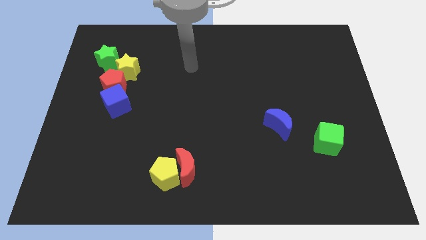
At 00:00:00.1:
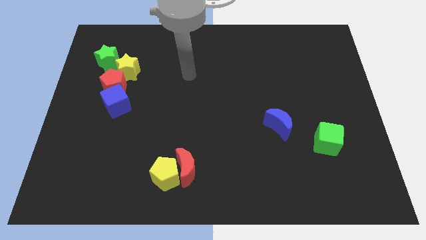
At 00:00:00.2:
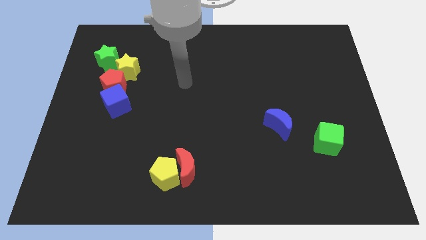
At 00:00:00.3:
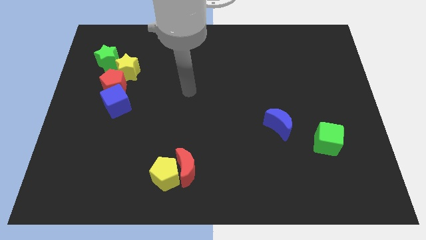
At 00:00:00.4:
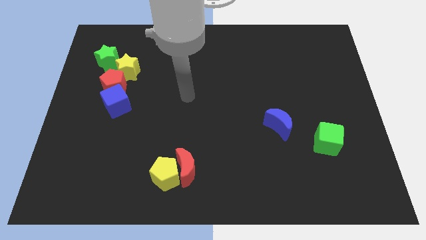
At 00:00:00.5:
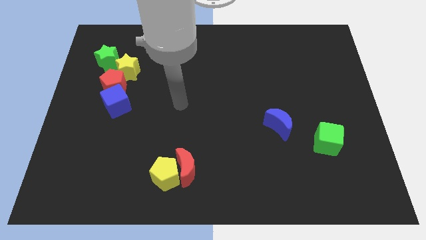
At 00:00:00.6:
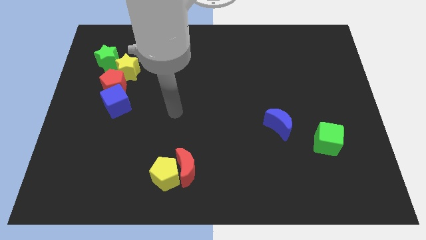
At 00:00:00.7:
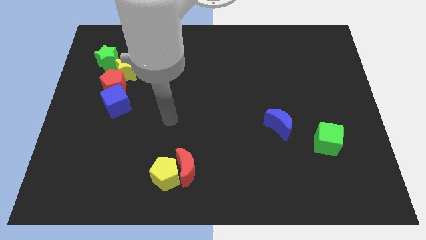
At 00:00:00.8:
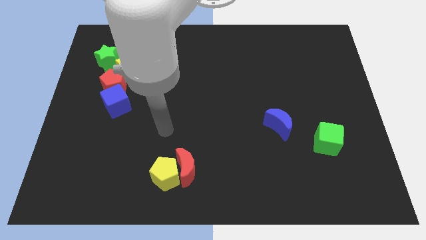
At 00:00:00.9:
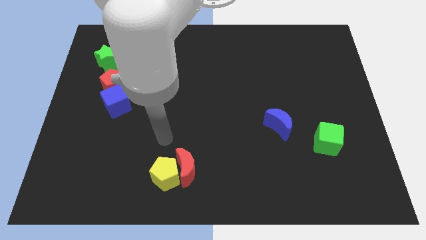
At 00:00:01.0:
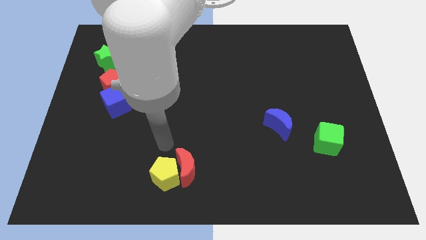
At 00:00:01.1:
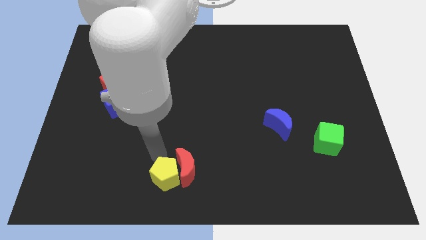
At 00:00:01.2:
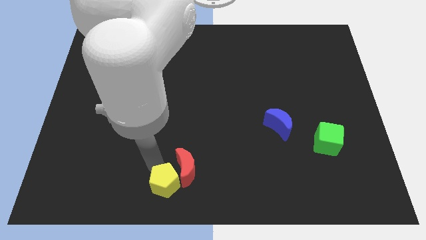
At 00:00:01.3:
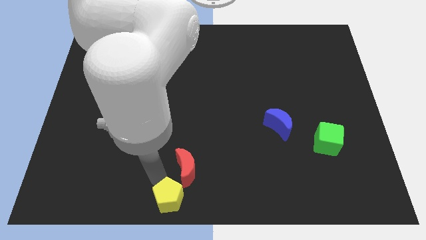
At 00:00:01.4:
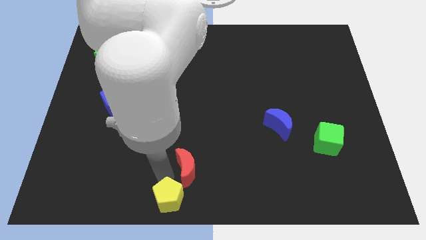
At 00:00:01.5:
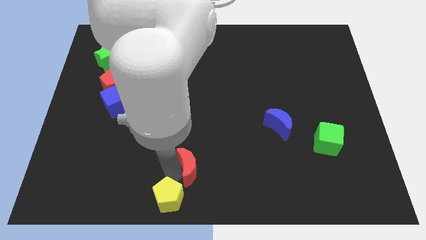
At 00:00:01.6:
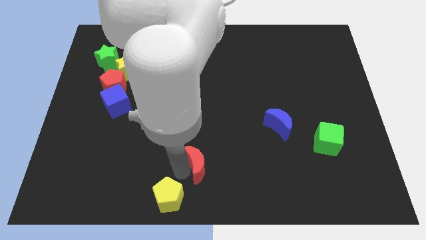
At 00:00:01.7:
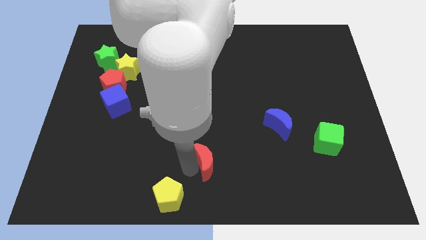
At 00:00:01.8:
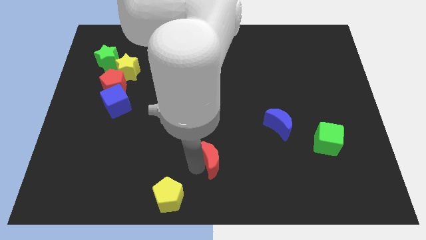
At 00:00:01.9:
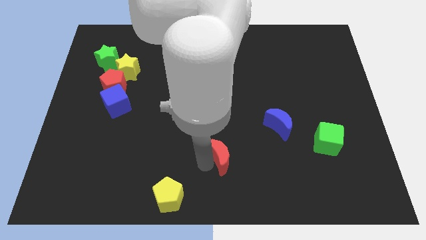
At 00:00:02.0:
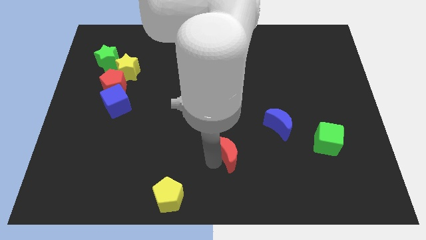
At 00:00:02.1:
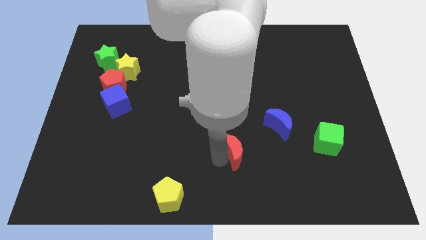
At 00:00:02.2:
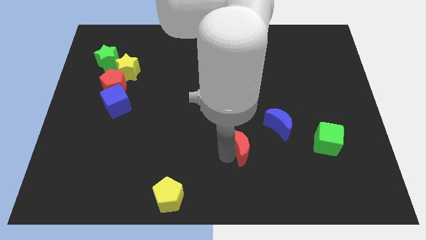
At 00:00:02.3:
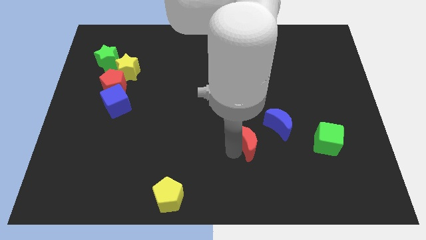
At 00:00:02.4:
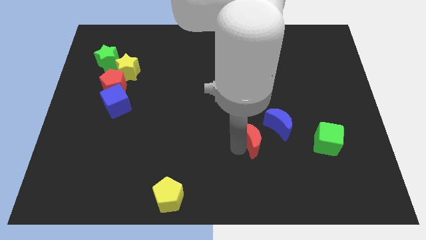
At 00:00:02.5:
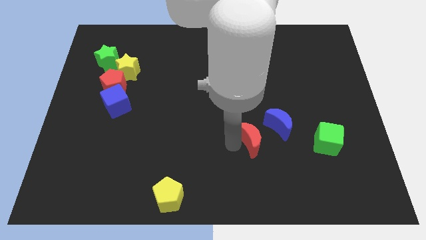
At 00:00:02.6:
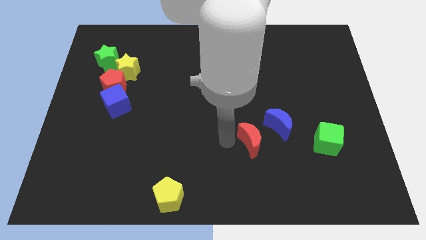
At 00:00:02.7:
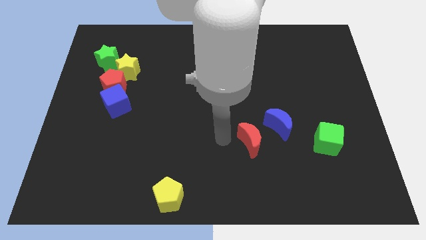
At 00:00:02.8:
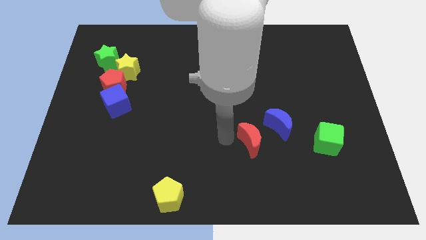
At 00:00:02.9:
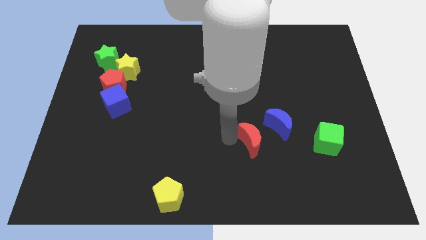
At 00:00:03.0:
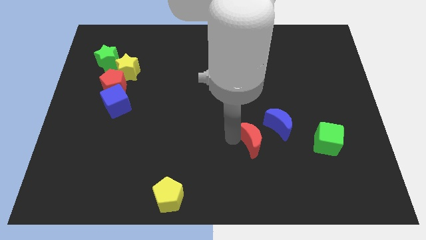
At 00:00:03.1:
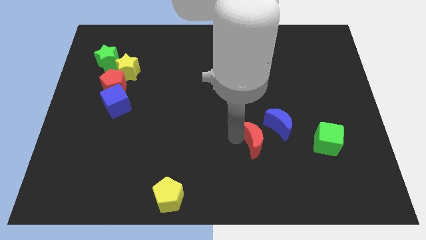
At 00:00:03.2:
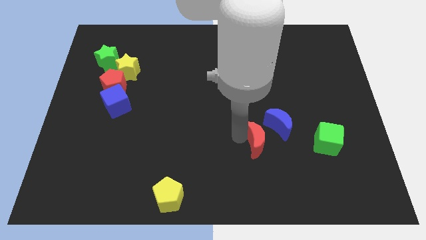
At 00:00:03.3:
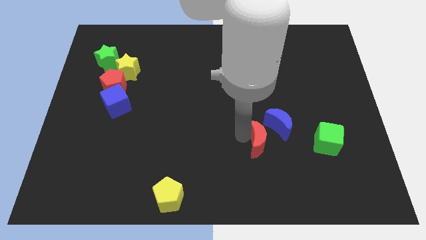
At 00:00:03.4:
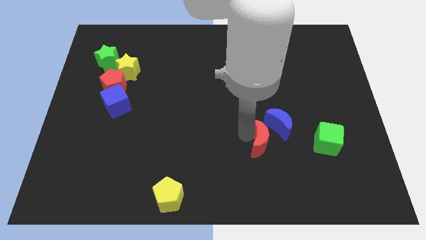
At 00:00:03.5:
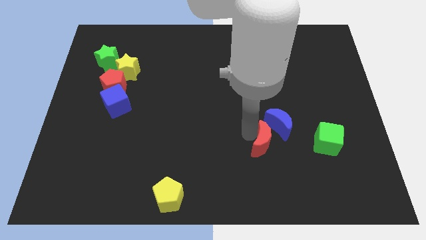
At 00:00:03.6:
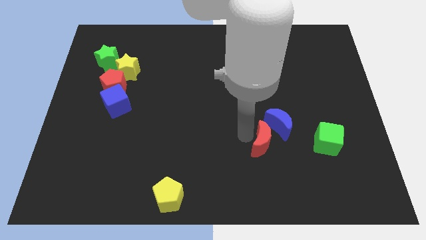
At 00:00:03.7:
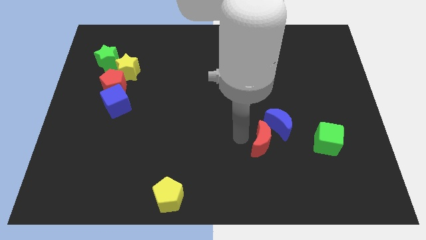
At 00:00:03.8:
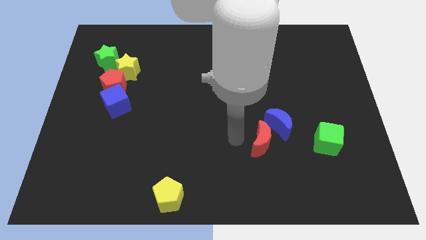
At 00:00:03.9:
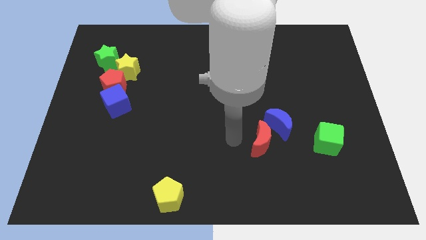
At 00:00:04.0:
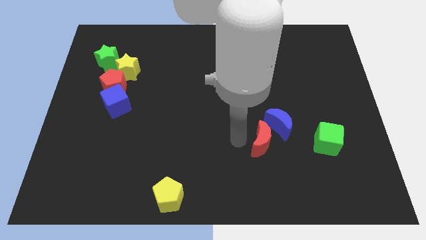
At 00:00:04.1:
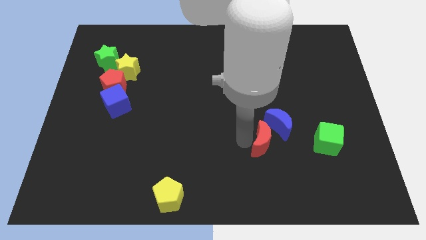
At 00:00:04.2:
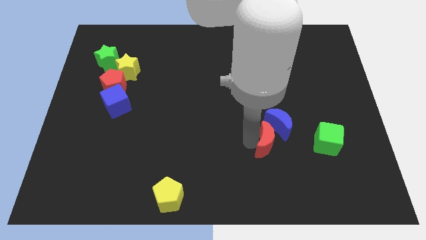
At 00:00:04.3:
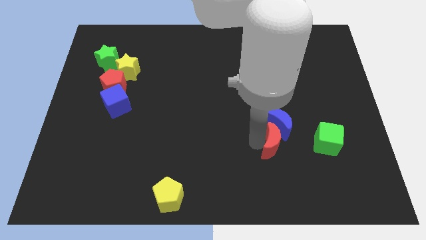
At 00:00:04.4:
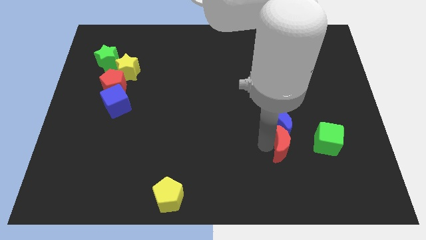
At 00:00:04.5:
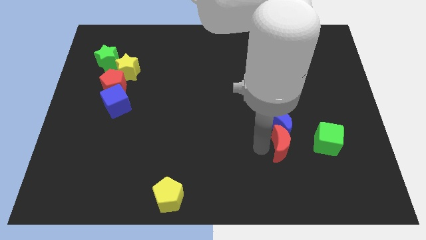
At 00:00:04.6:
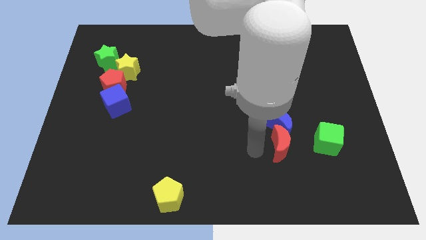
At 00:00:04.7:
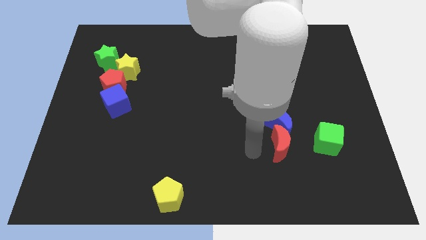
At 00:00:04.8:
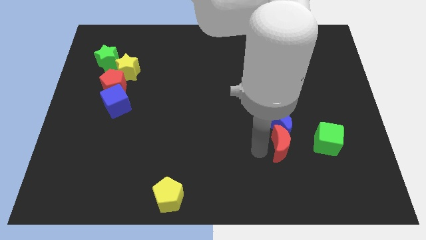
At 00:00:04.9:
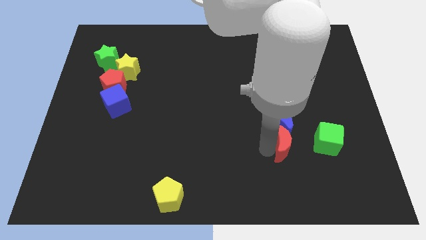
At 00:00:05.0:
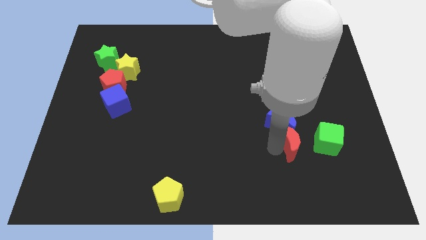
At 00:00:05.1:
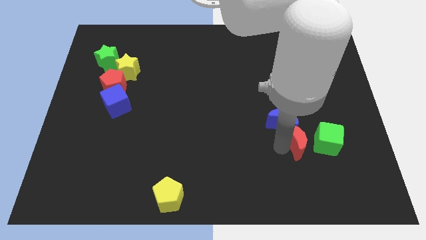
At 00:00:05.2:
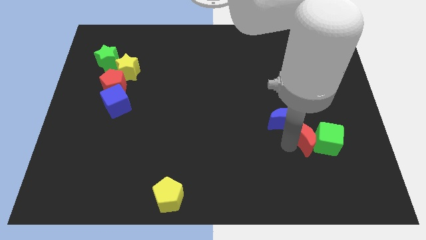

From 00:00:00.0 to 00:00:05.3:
move the red moon close to the green cube

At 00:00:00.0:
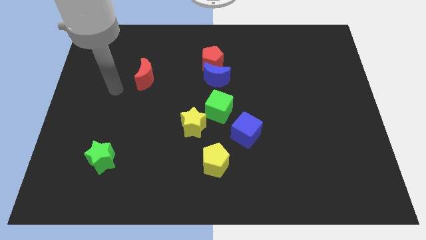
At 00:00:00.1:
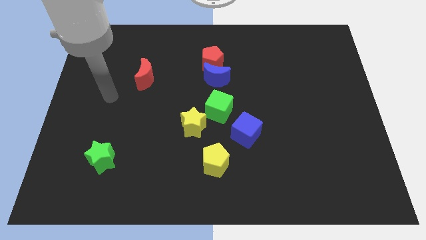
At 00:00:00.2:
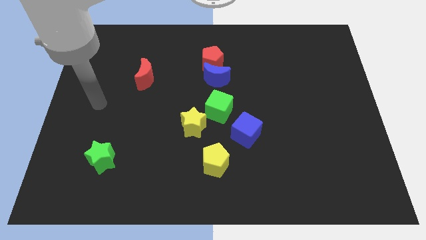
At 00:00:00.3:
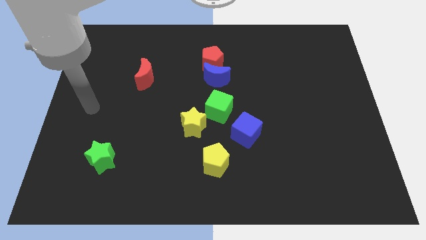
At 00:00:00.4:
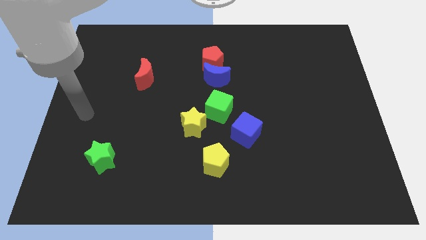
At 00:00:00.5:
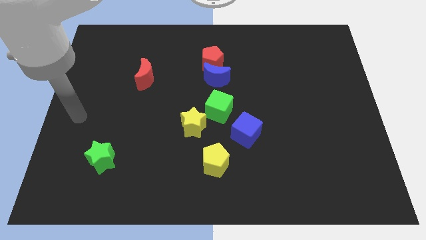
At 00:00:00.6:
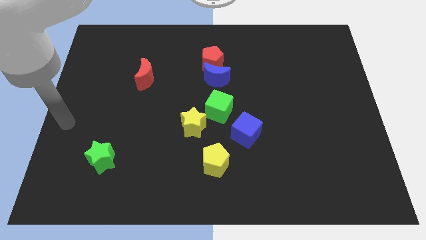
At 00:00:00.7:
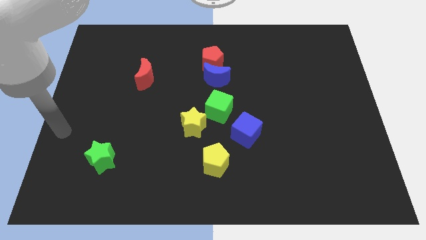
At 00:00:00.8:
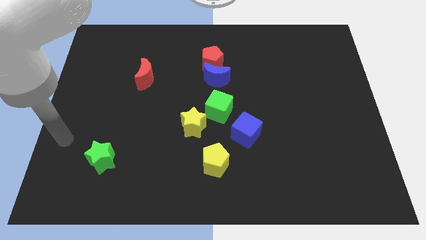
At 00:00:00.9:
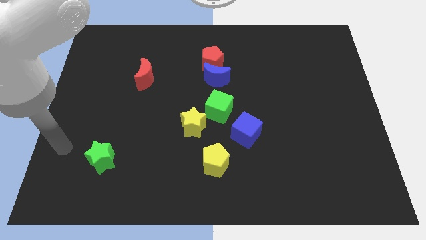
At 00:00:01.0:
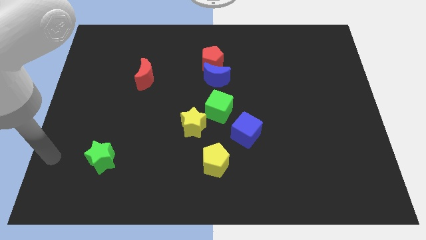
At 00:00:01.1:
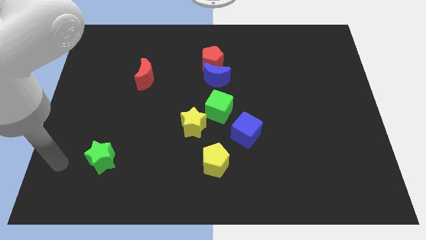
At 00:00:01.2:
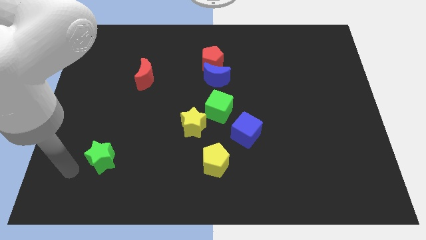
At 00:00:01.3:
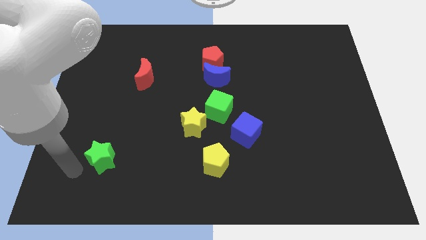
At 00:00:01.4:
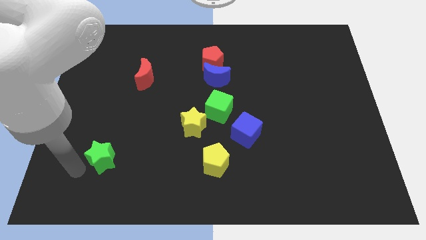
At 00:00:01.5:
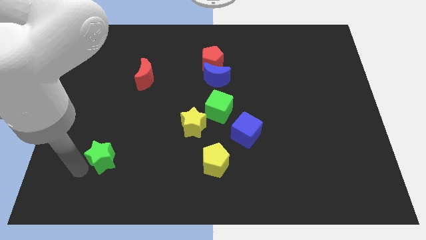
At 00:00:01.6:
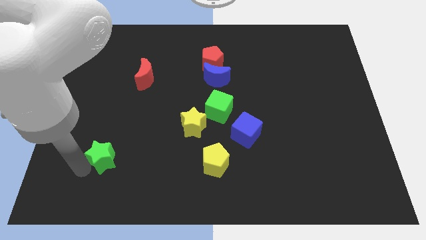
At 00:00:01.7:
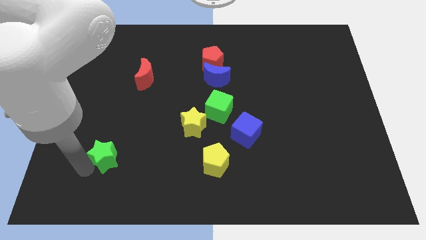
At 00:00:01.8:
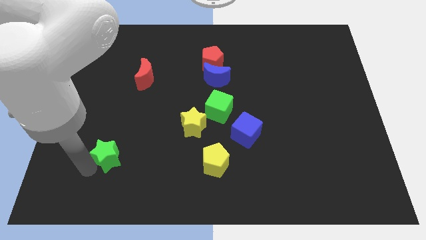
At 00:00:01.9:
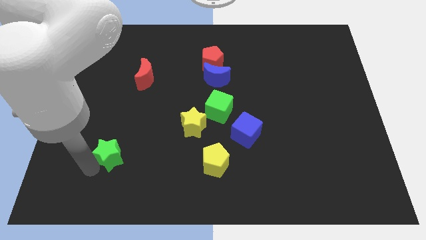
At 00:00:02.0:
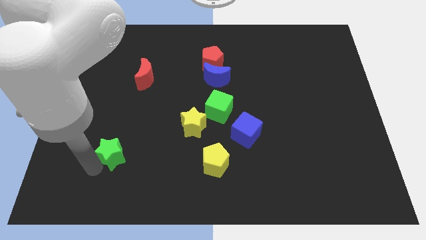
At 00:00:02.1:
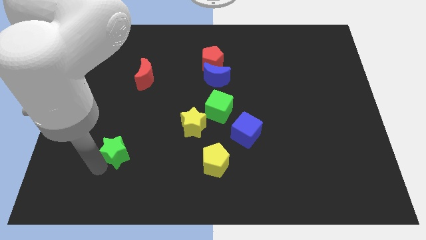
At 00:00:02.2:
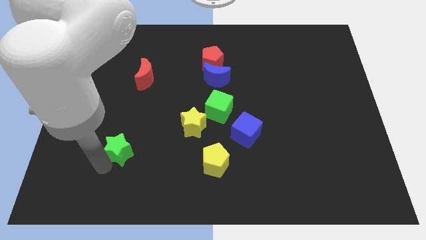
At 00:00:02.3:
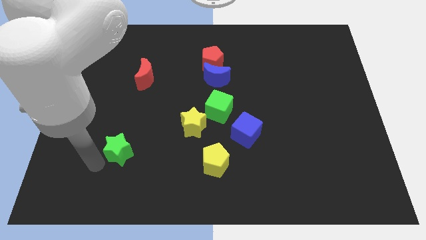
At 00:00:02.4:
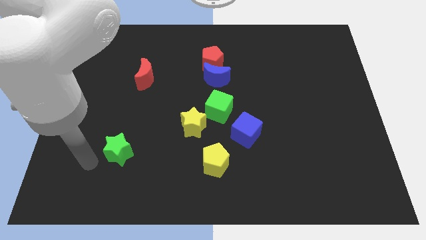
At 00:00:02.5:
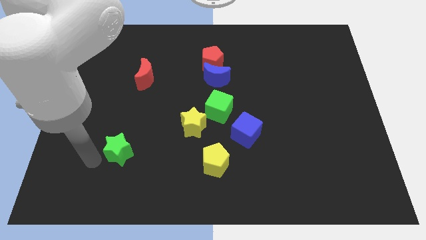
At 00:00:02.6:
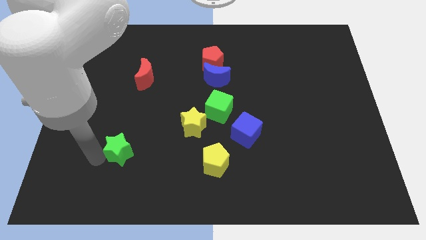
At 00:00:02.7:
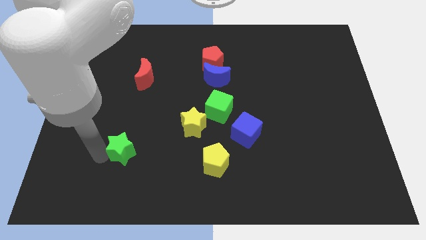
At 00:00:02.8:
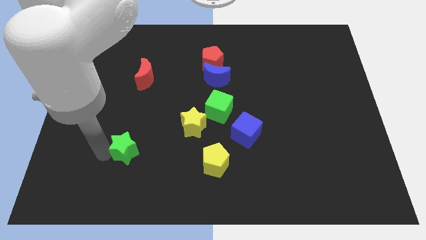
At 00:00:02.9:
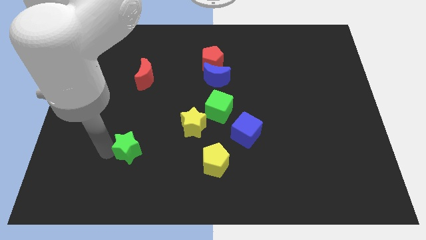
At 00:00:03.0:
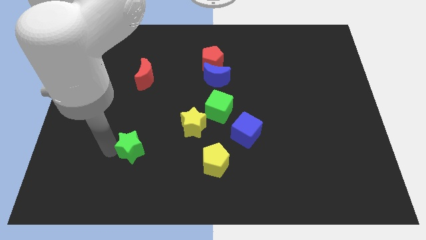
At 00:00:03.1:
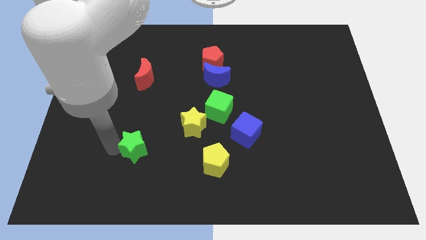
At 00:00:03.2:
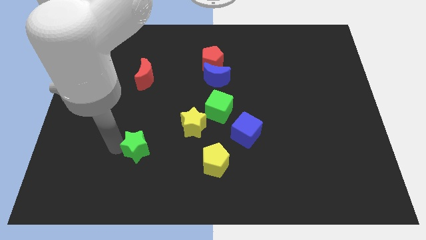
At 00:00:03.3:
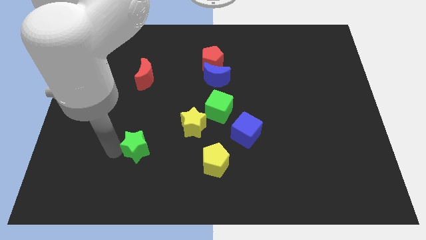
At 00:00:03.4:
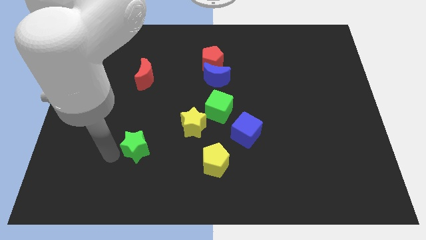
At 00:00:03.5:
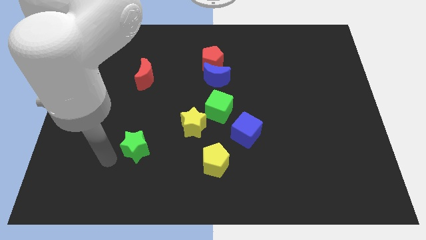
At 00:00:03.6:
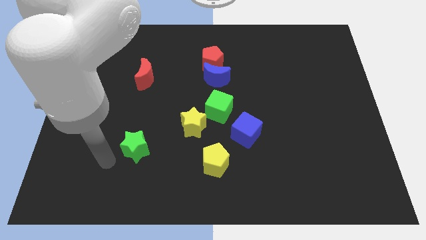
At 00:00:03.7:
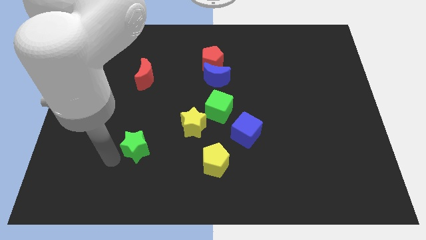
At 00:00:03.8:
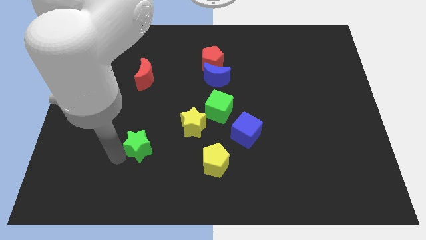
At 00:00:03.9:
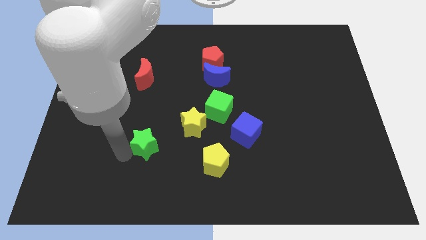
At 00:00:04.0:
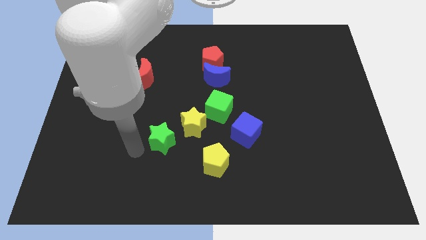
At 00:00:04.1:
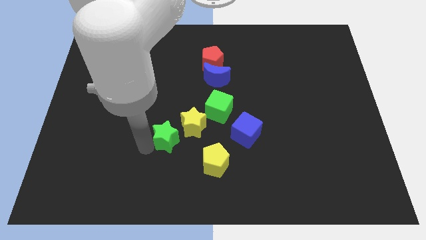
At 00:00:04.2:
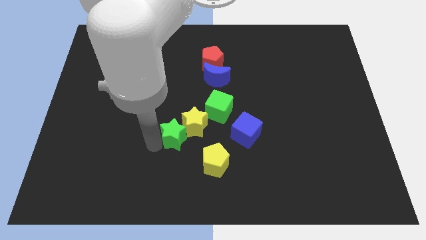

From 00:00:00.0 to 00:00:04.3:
push the green star towards the yellow star
